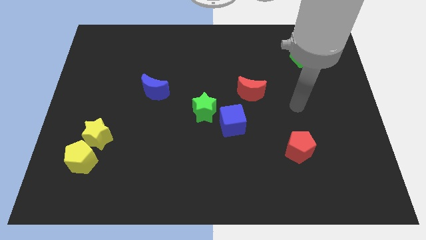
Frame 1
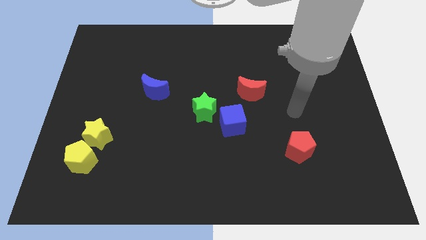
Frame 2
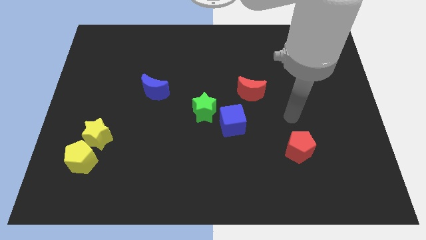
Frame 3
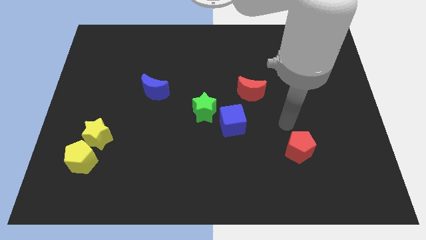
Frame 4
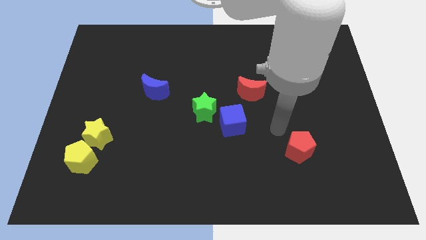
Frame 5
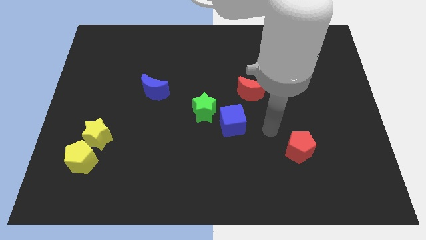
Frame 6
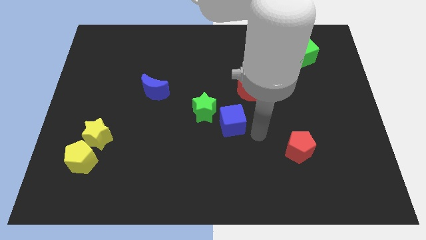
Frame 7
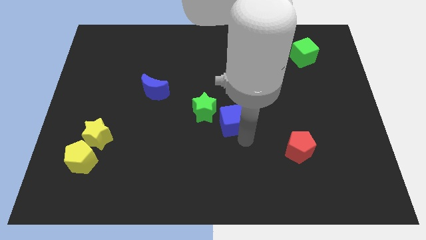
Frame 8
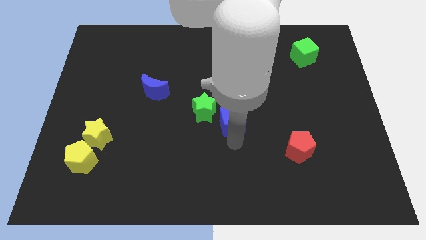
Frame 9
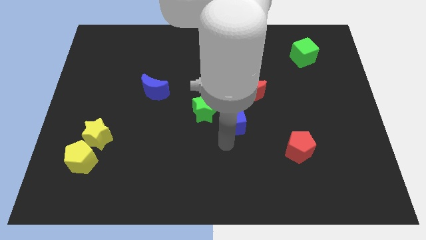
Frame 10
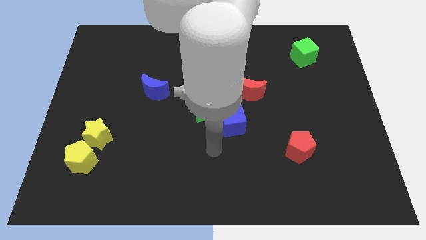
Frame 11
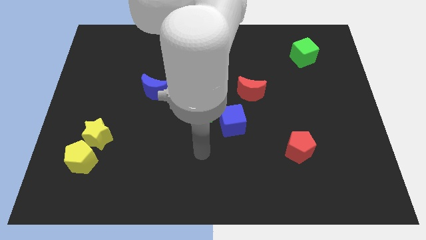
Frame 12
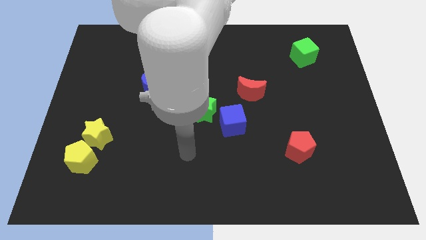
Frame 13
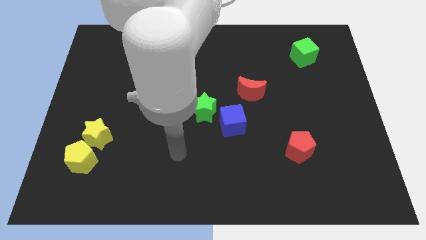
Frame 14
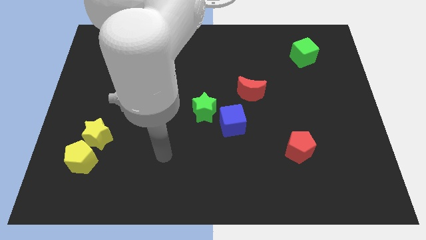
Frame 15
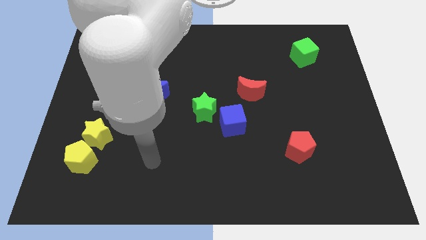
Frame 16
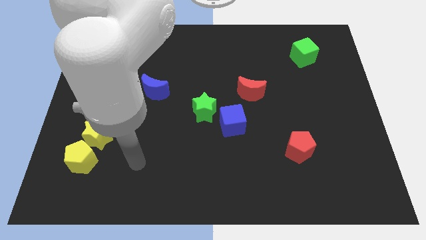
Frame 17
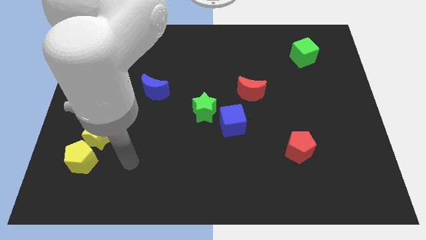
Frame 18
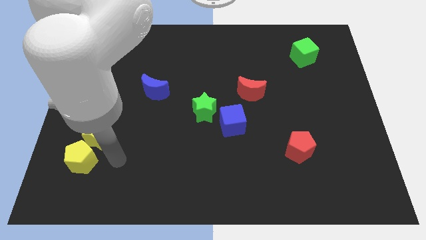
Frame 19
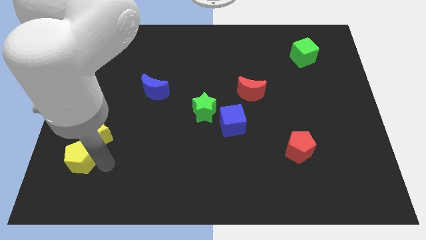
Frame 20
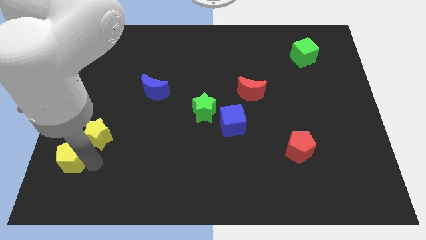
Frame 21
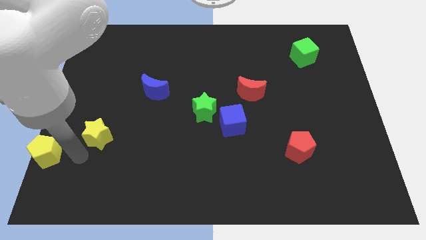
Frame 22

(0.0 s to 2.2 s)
separate the yellow star from the yellow pentagon

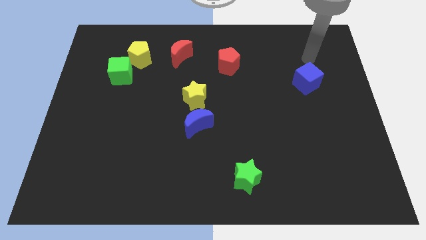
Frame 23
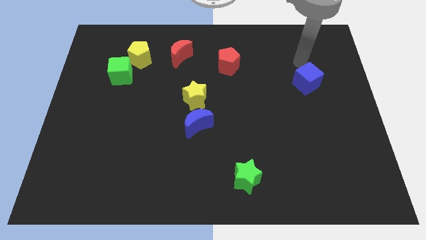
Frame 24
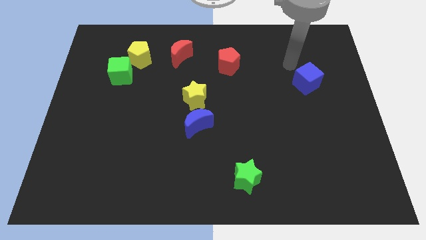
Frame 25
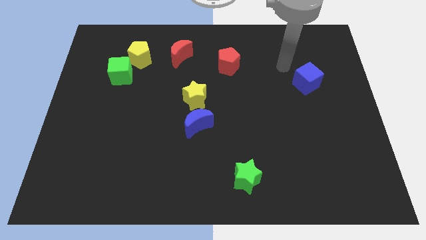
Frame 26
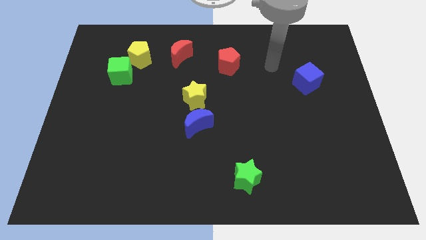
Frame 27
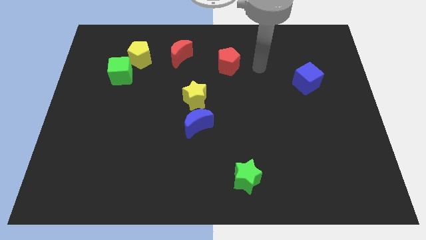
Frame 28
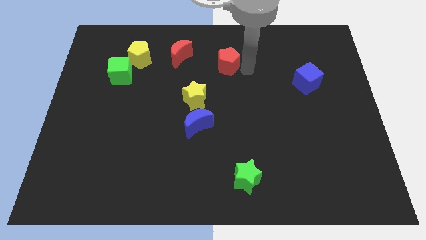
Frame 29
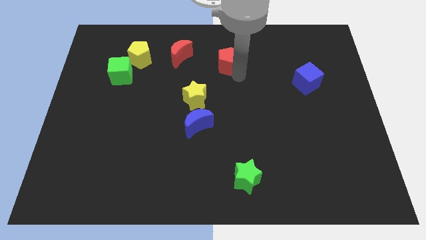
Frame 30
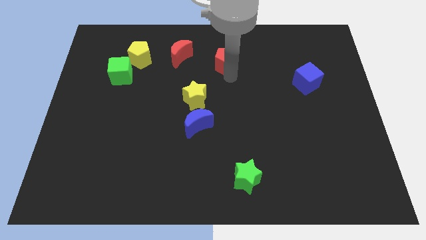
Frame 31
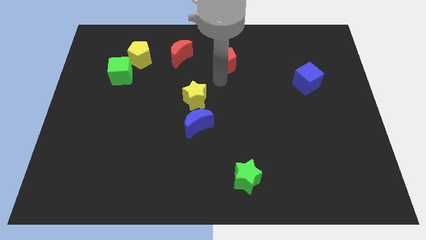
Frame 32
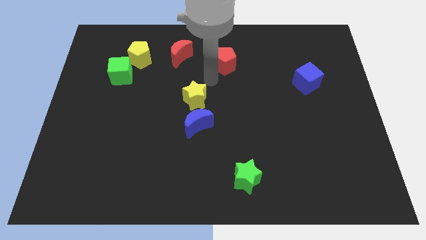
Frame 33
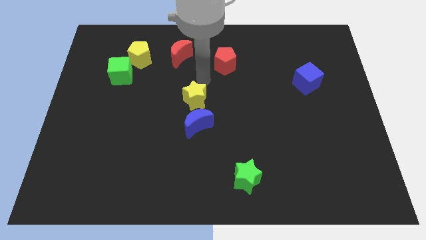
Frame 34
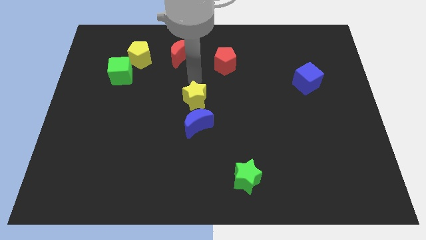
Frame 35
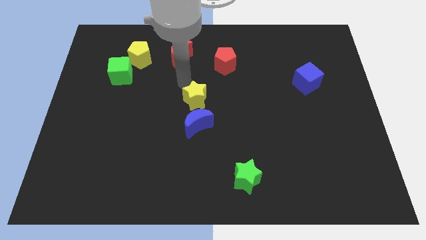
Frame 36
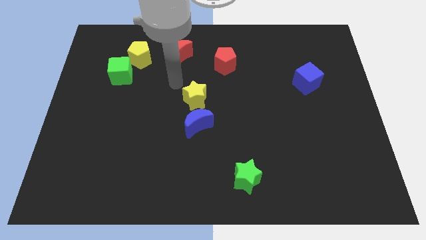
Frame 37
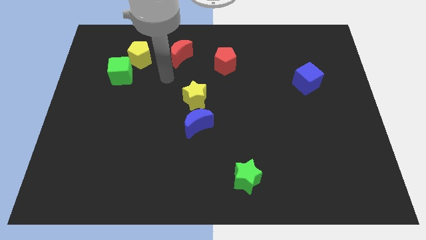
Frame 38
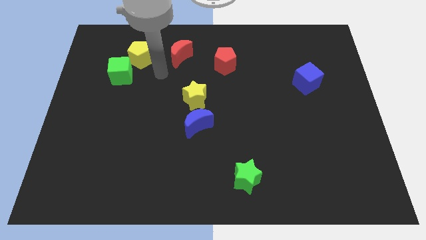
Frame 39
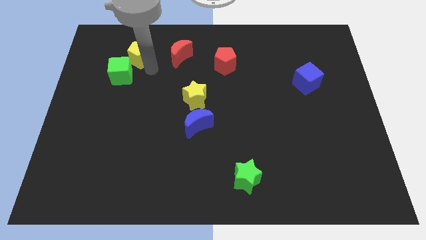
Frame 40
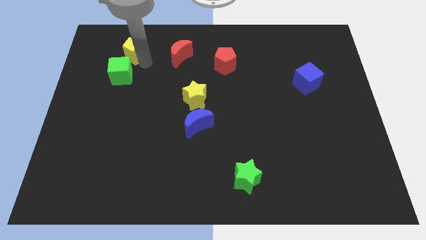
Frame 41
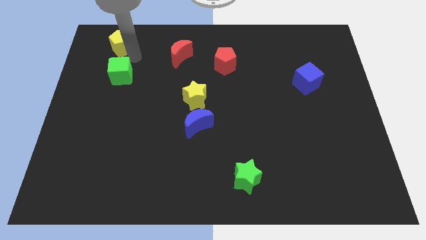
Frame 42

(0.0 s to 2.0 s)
separate the green cube from the yellow pentagon

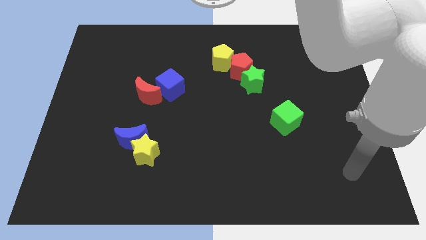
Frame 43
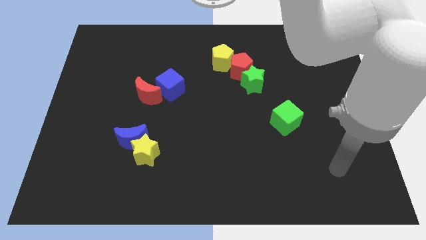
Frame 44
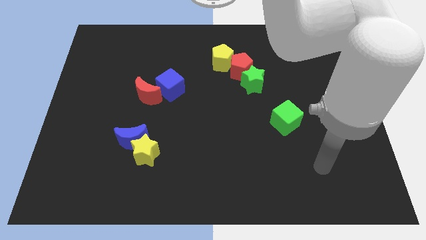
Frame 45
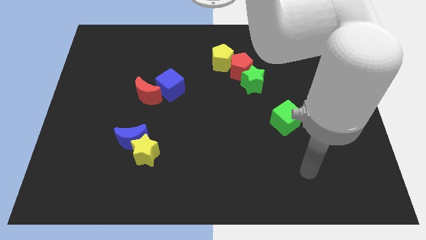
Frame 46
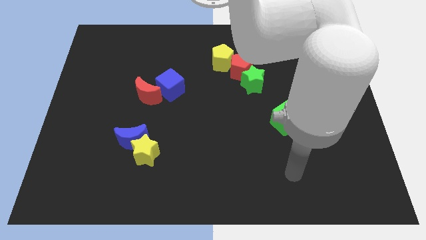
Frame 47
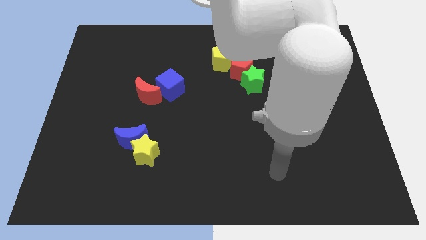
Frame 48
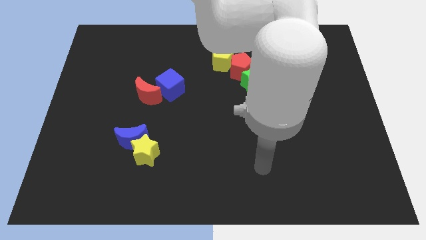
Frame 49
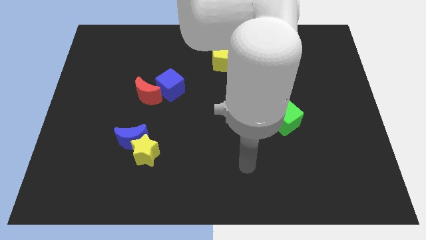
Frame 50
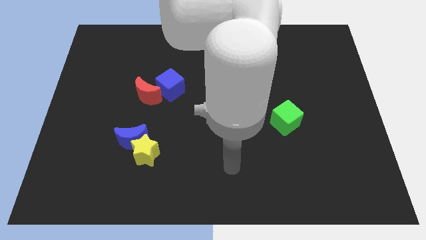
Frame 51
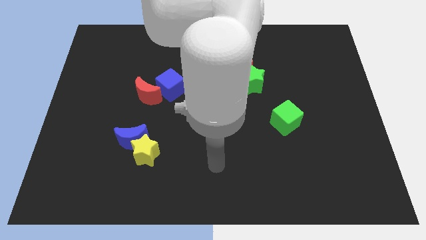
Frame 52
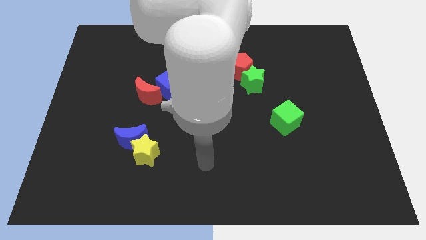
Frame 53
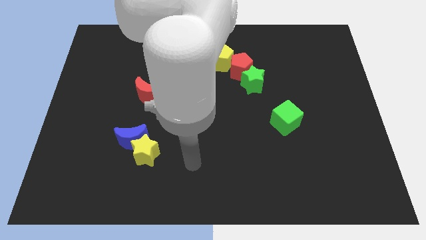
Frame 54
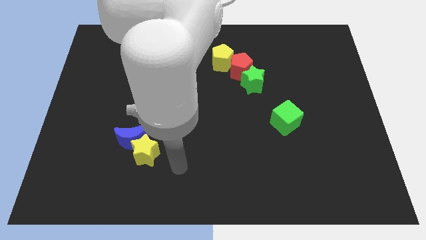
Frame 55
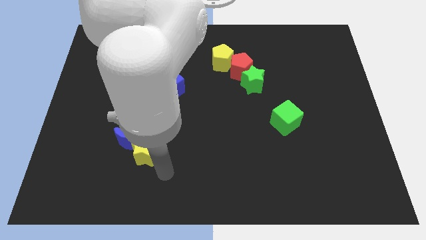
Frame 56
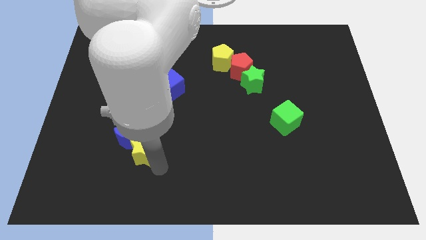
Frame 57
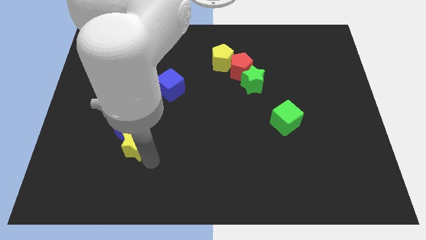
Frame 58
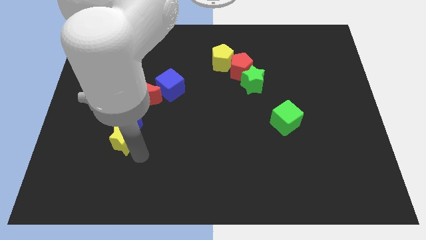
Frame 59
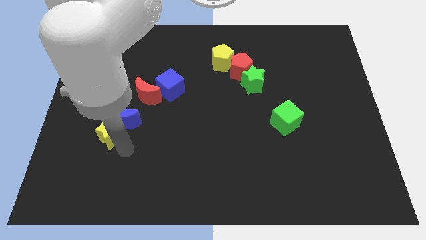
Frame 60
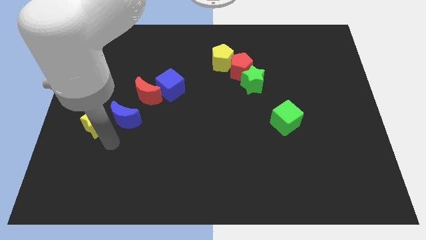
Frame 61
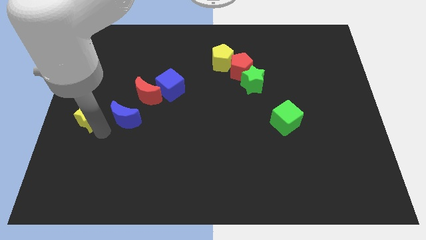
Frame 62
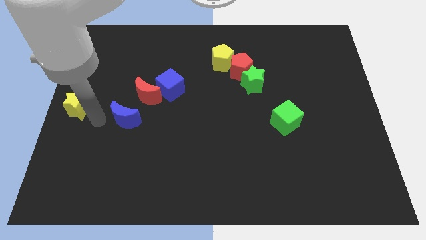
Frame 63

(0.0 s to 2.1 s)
pull the blue moon apart from the yellow star

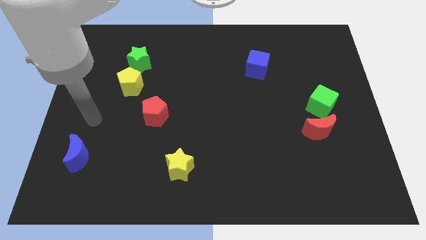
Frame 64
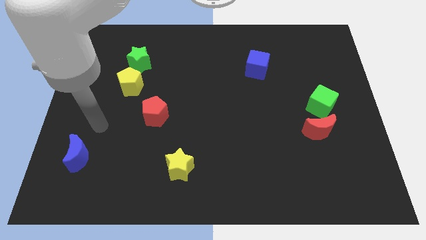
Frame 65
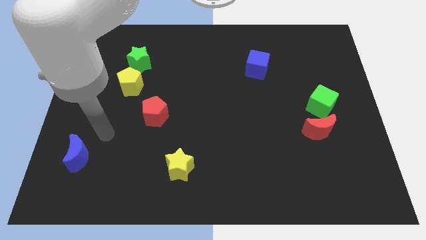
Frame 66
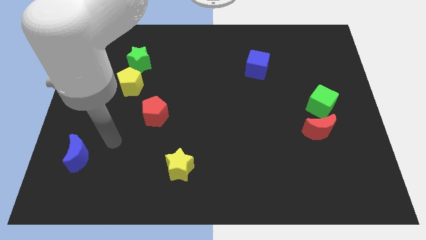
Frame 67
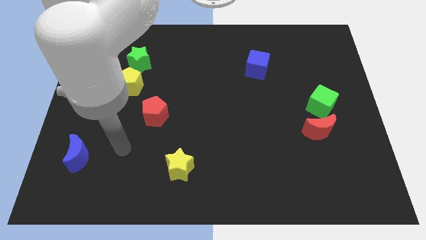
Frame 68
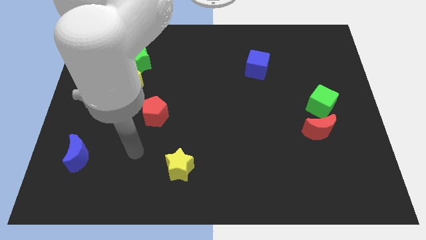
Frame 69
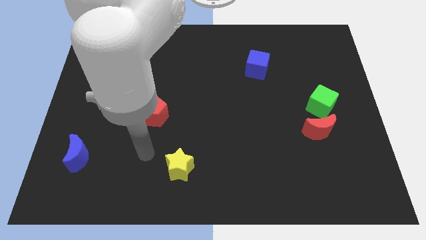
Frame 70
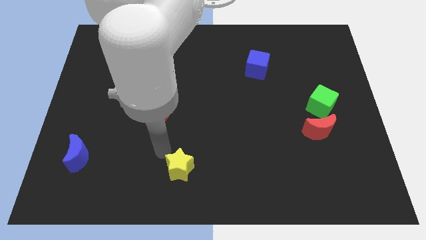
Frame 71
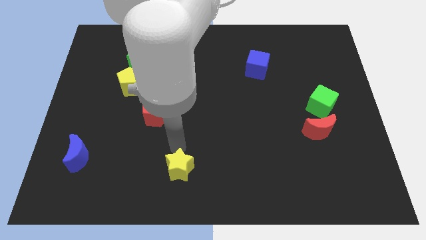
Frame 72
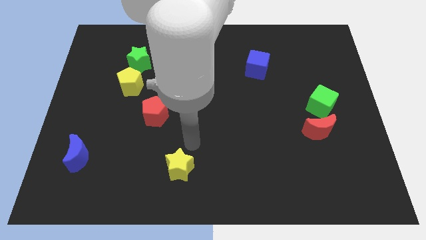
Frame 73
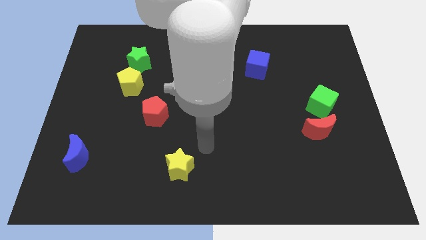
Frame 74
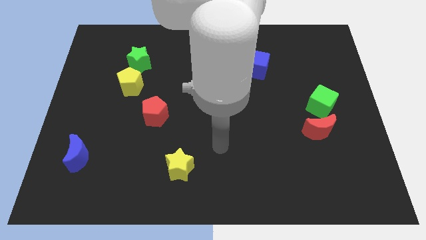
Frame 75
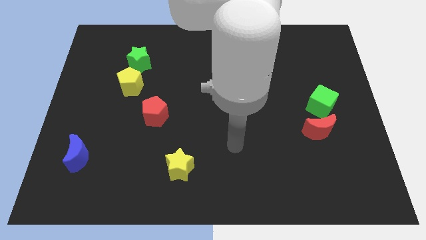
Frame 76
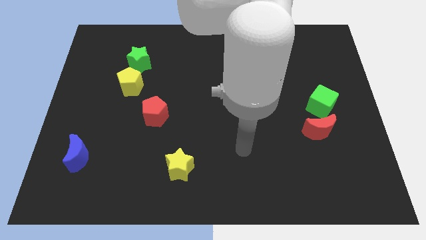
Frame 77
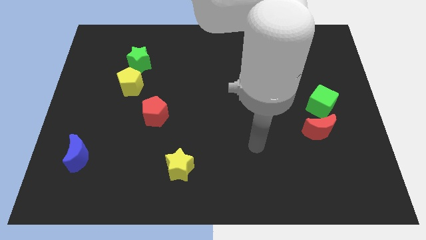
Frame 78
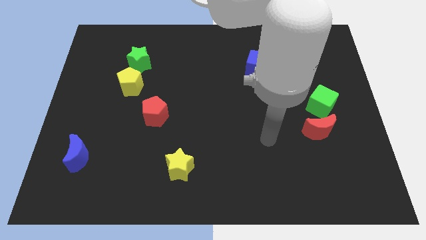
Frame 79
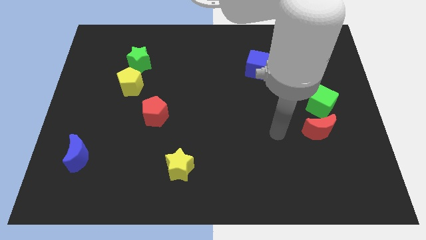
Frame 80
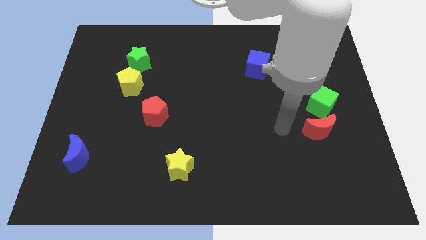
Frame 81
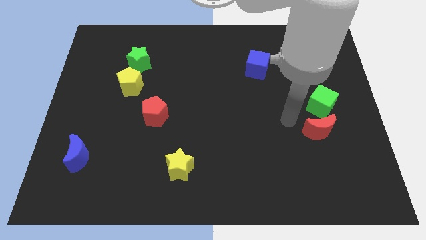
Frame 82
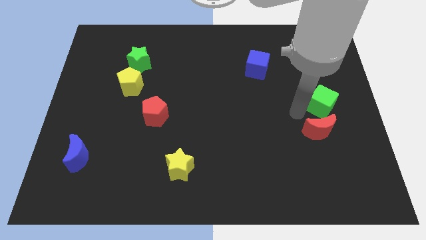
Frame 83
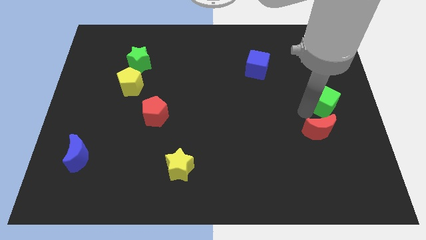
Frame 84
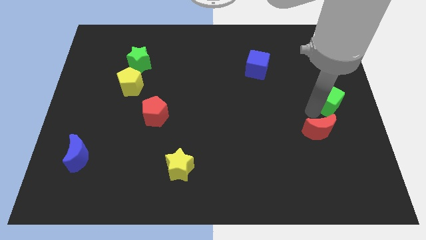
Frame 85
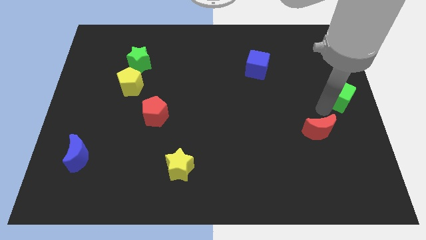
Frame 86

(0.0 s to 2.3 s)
move the red moon away from the green cube

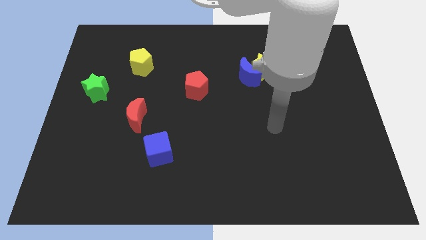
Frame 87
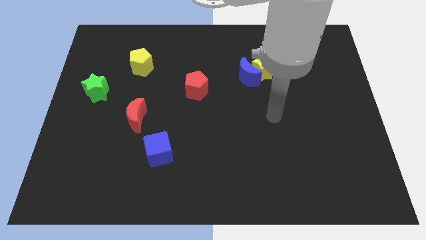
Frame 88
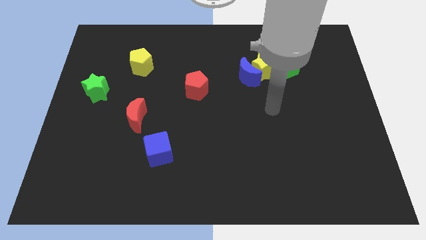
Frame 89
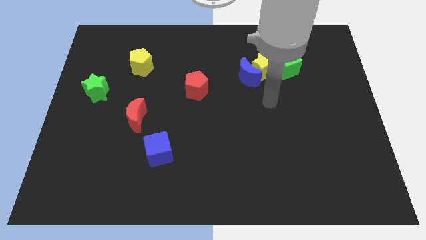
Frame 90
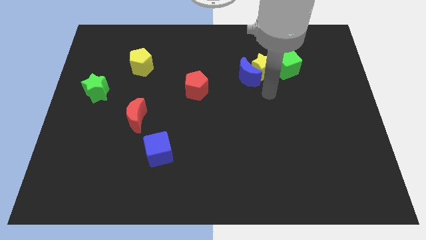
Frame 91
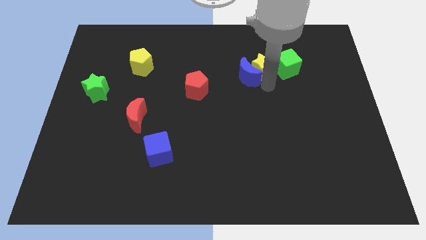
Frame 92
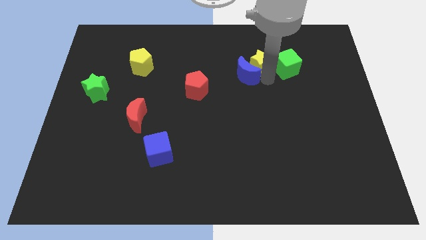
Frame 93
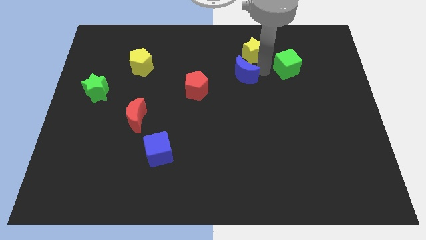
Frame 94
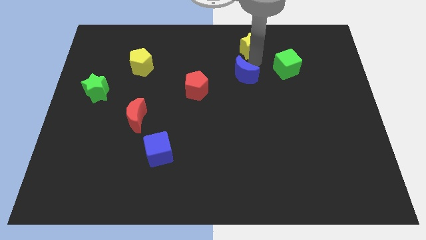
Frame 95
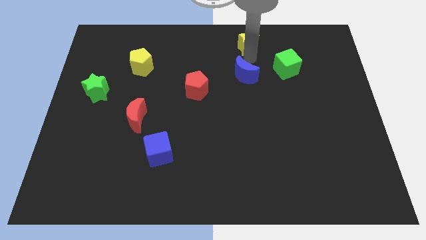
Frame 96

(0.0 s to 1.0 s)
separate the blue moon from the yellow star
